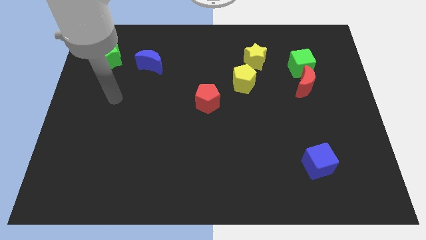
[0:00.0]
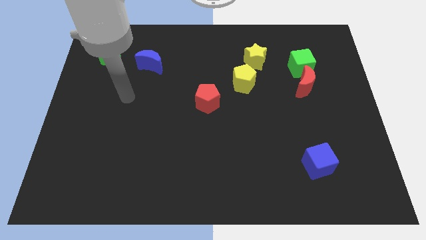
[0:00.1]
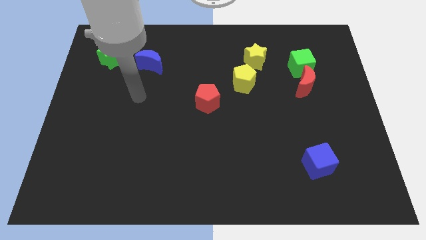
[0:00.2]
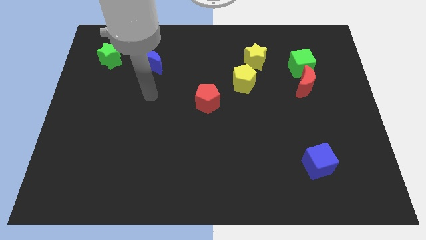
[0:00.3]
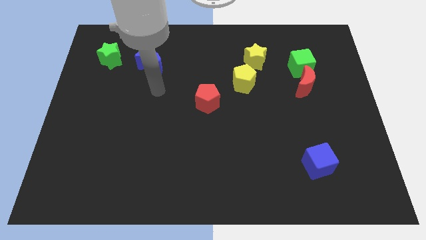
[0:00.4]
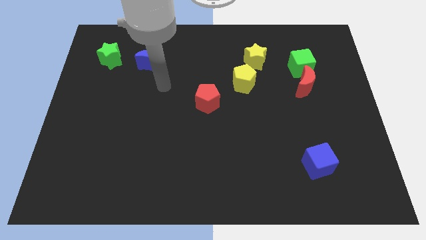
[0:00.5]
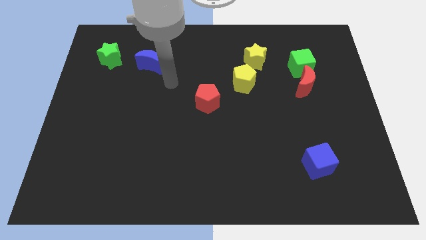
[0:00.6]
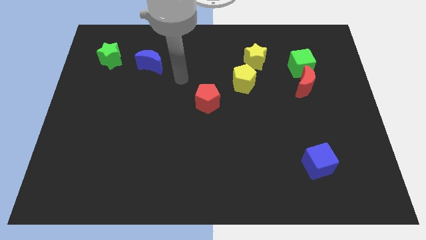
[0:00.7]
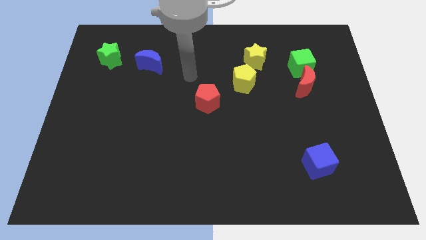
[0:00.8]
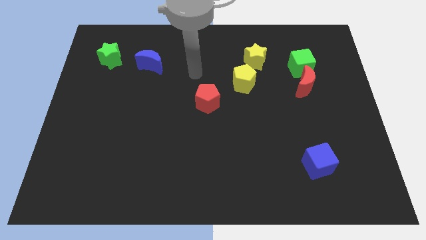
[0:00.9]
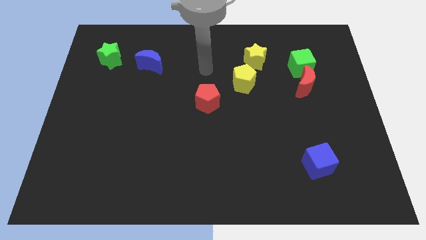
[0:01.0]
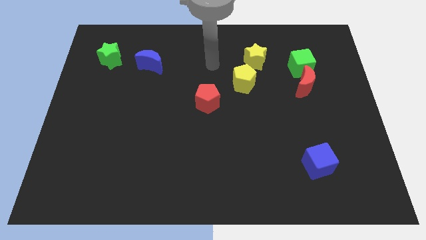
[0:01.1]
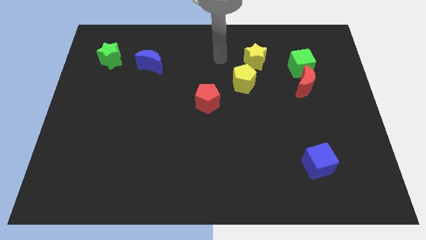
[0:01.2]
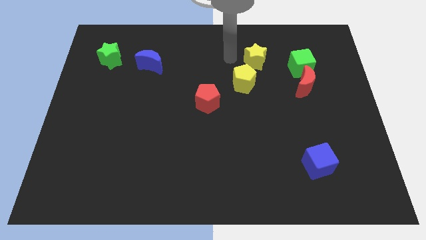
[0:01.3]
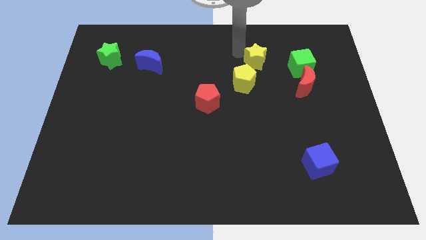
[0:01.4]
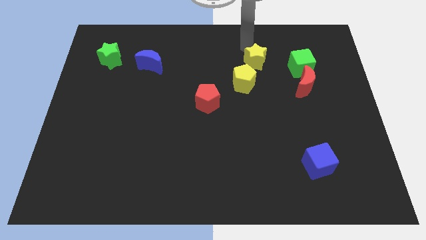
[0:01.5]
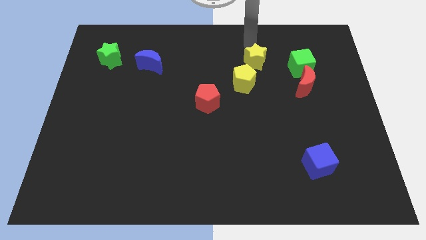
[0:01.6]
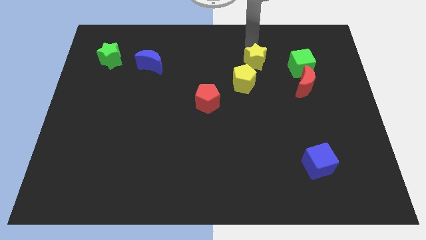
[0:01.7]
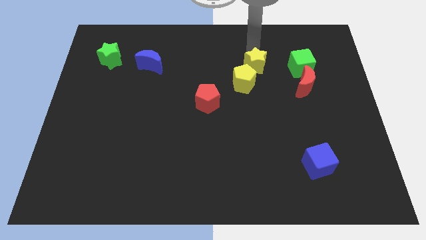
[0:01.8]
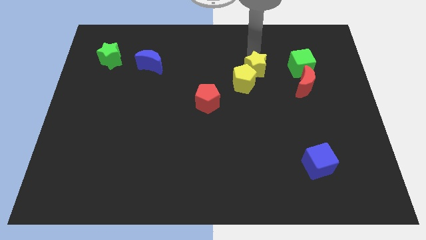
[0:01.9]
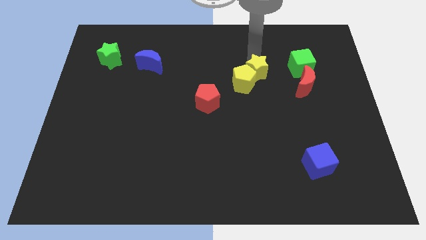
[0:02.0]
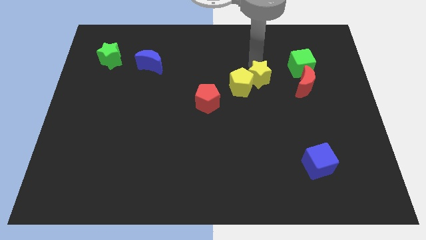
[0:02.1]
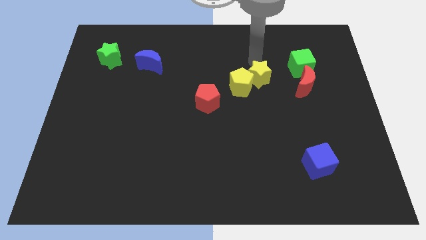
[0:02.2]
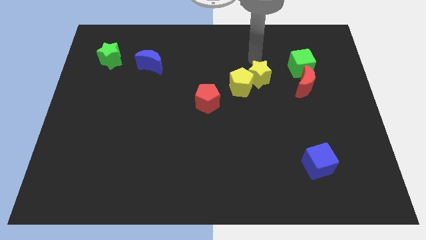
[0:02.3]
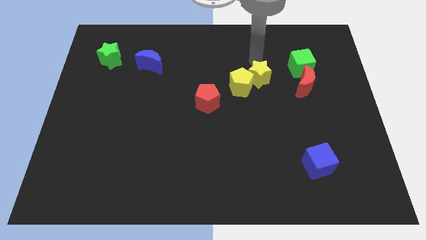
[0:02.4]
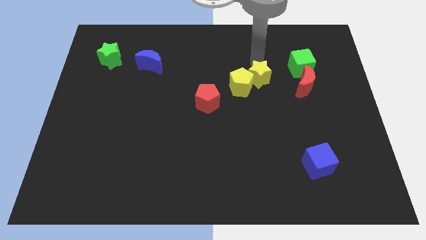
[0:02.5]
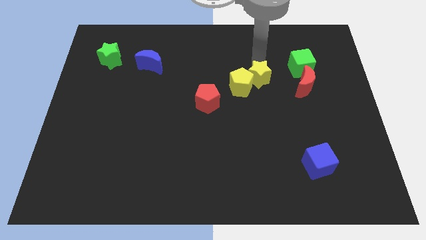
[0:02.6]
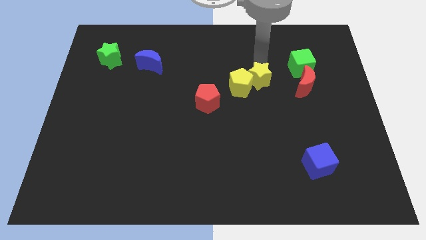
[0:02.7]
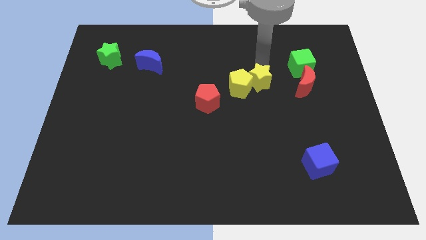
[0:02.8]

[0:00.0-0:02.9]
slide the yellow star down a little bit

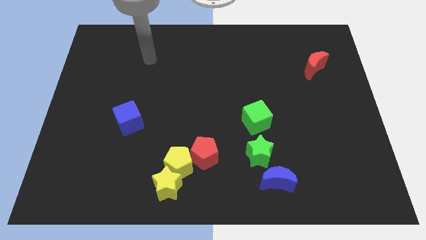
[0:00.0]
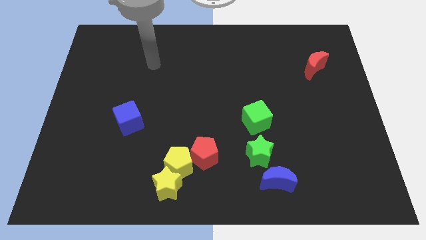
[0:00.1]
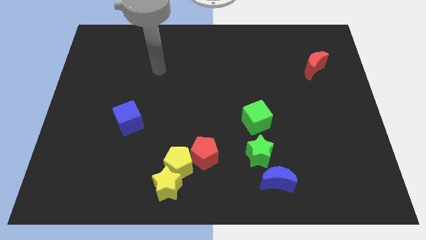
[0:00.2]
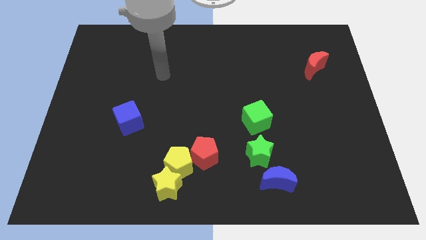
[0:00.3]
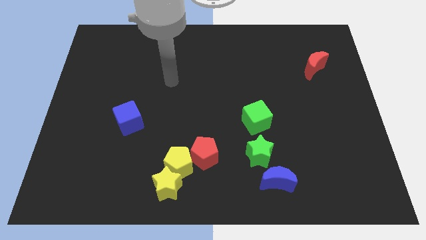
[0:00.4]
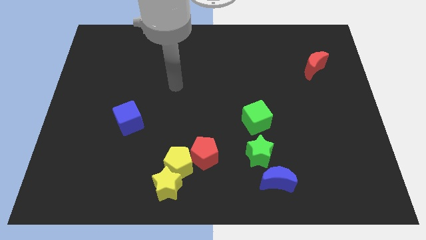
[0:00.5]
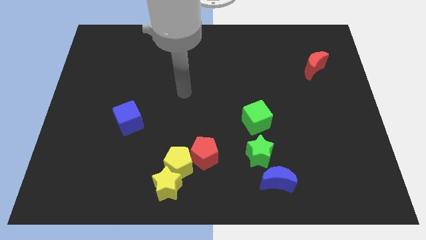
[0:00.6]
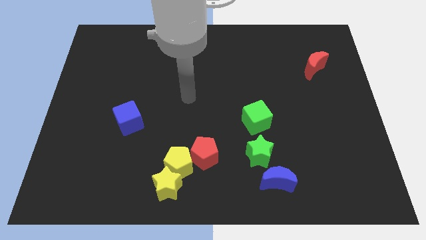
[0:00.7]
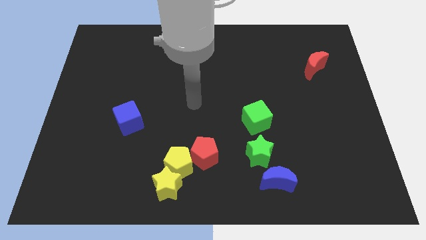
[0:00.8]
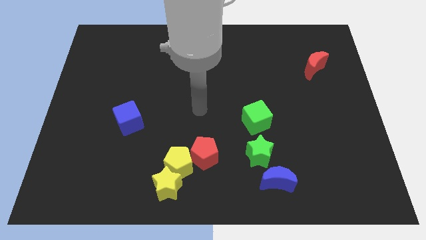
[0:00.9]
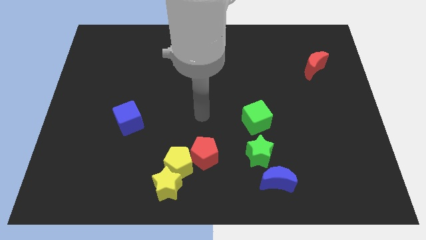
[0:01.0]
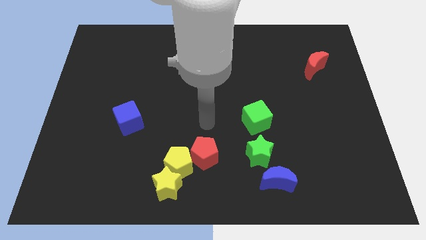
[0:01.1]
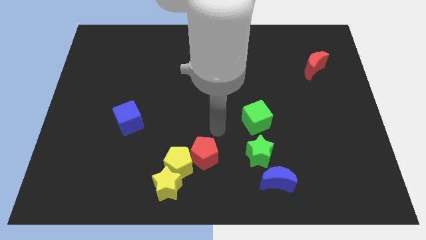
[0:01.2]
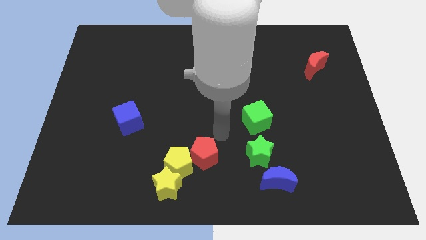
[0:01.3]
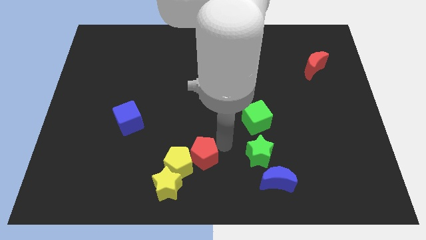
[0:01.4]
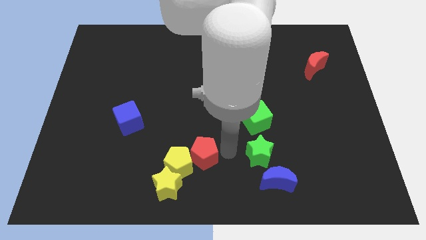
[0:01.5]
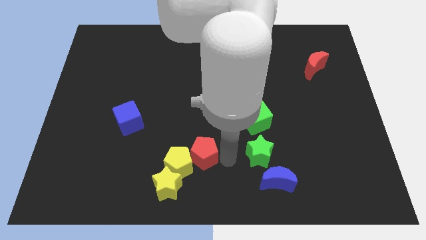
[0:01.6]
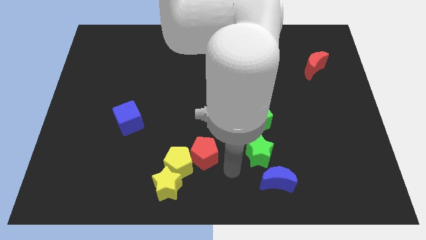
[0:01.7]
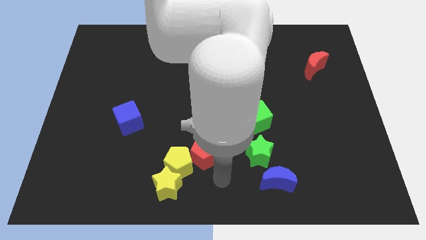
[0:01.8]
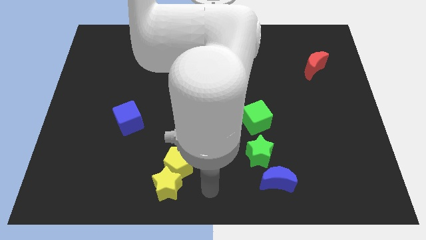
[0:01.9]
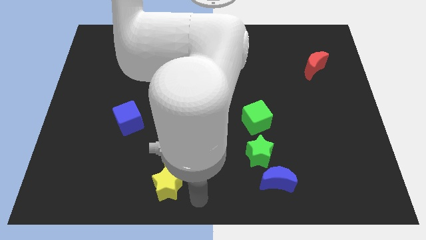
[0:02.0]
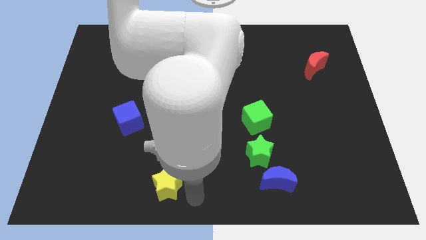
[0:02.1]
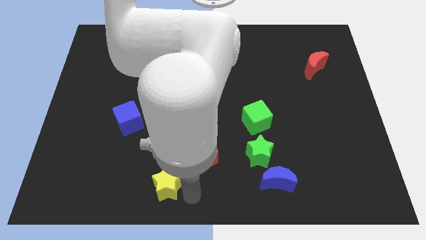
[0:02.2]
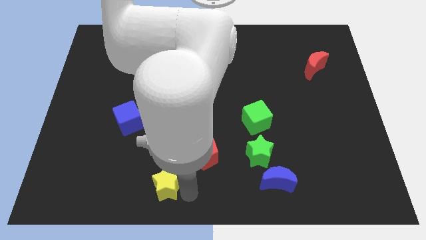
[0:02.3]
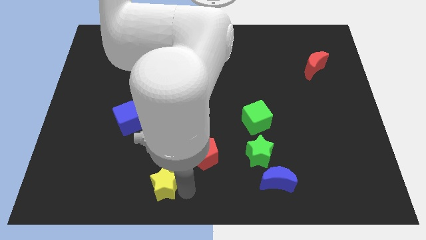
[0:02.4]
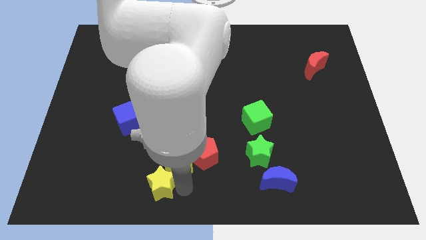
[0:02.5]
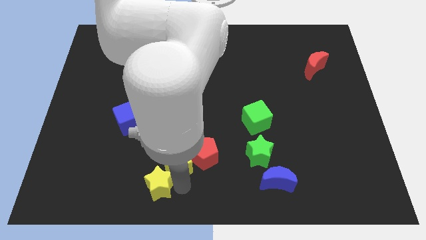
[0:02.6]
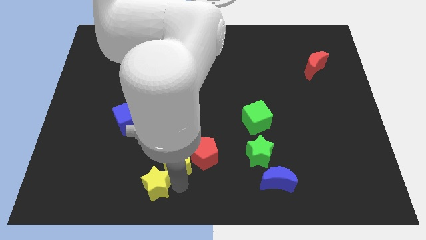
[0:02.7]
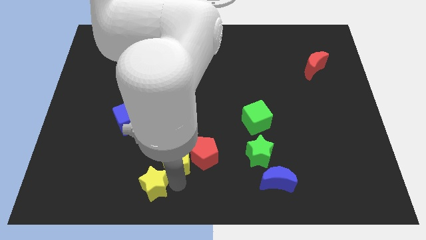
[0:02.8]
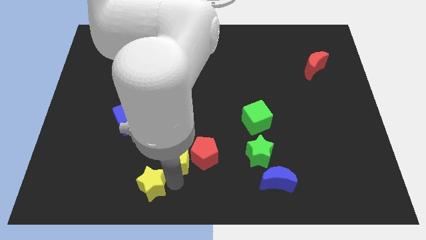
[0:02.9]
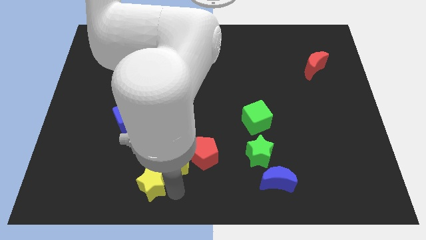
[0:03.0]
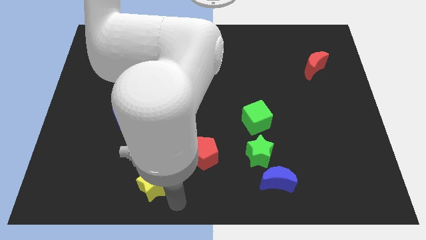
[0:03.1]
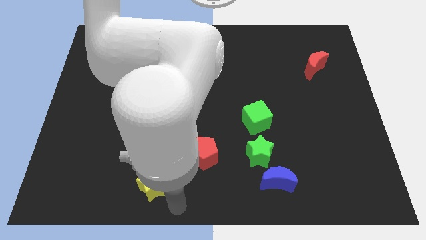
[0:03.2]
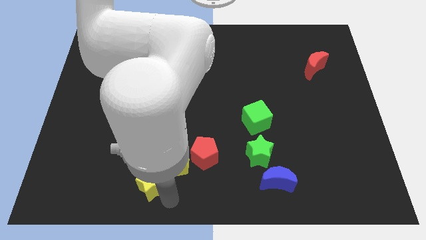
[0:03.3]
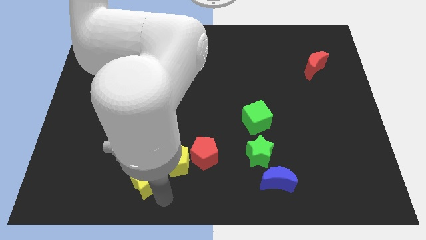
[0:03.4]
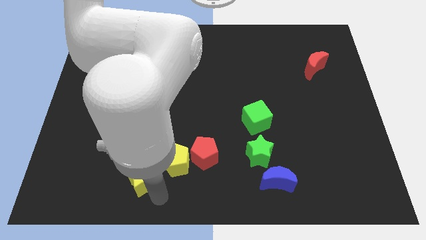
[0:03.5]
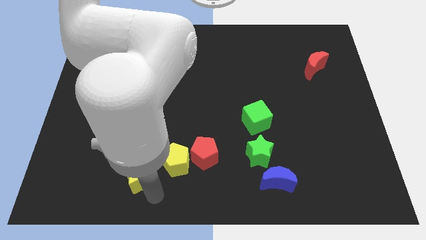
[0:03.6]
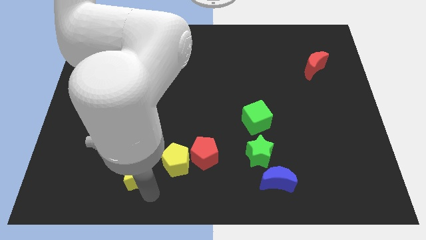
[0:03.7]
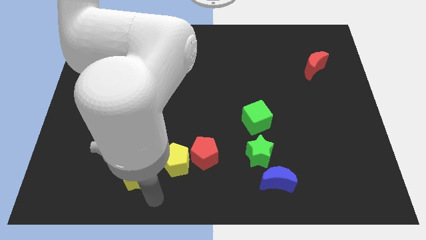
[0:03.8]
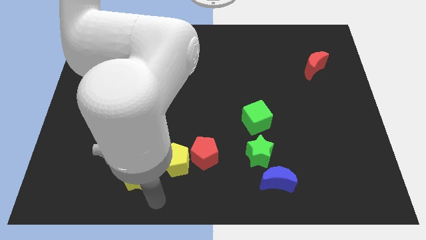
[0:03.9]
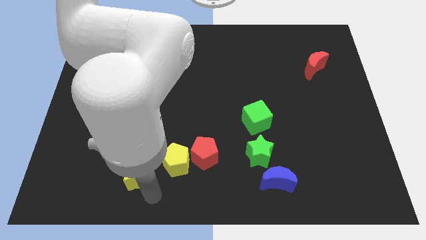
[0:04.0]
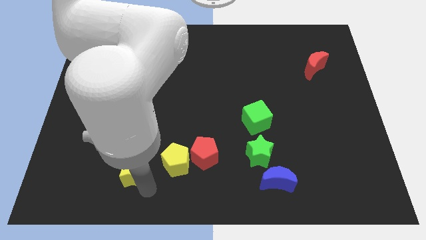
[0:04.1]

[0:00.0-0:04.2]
move the yellow star a bit upwards and then left

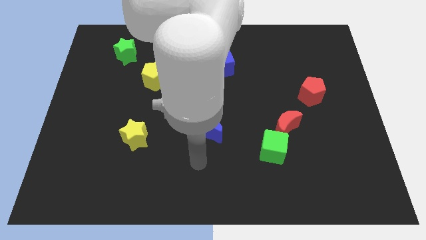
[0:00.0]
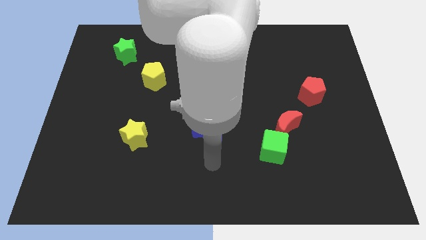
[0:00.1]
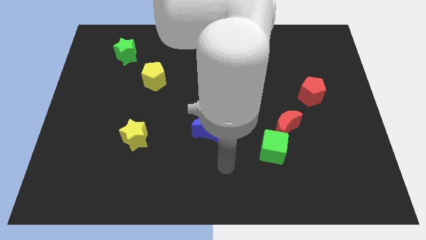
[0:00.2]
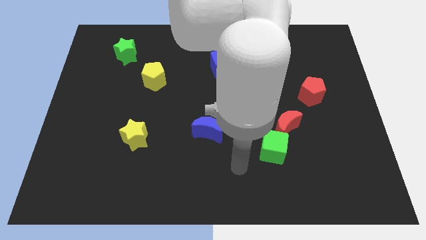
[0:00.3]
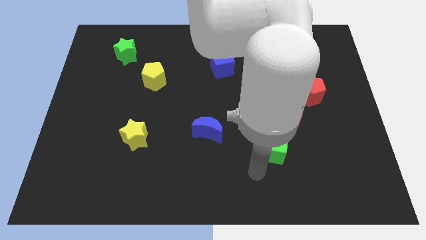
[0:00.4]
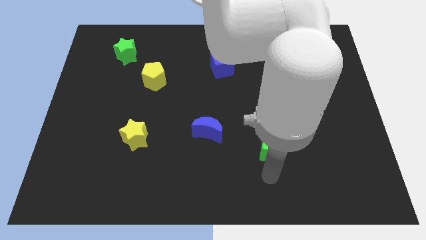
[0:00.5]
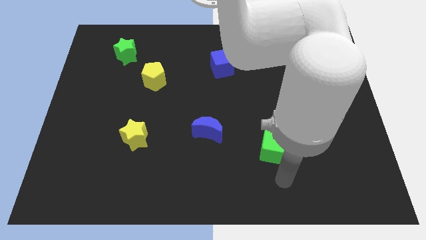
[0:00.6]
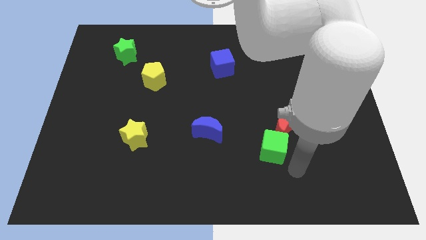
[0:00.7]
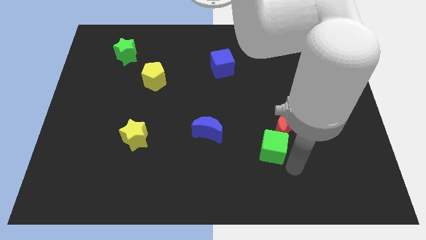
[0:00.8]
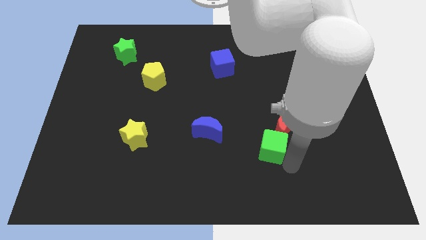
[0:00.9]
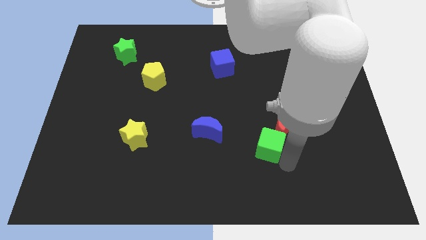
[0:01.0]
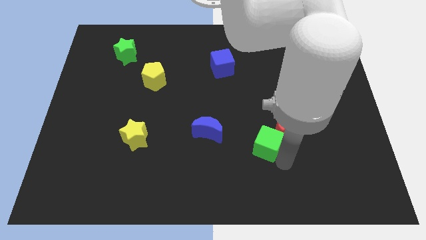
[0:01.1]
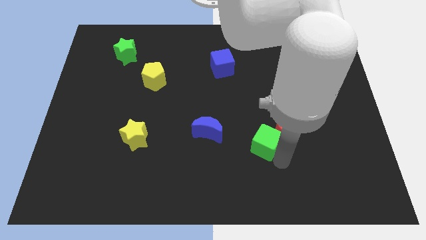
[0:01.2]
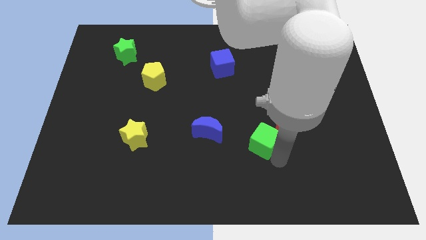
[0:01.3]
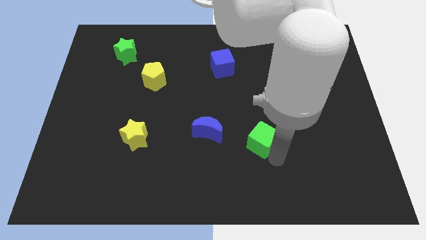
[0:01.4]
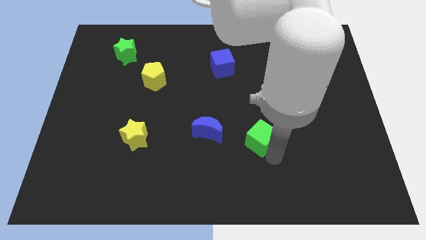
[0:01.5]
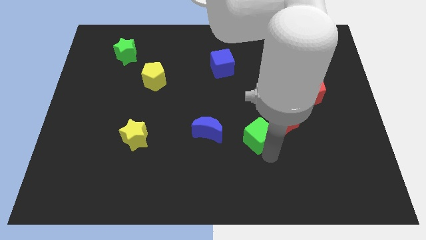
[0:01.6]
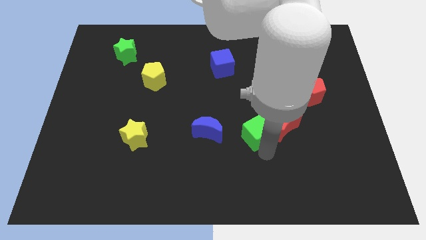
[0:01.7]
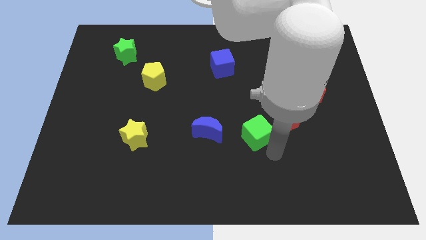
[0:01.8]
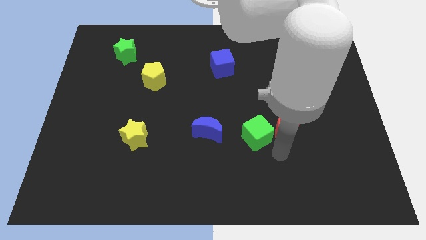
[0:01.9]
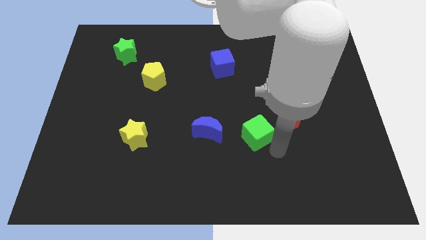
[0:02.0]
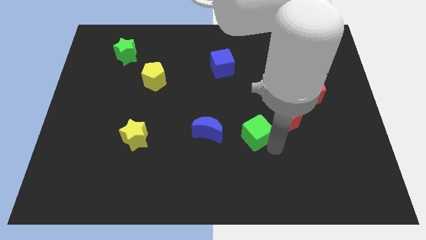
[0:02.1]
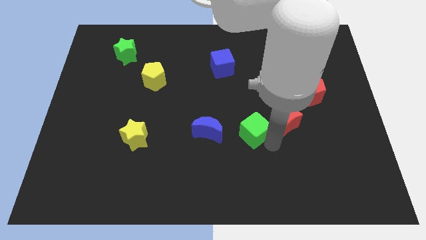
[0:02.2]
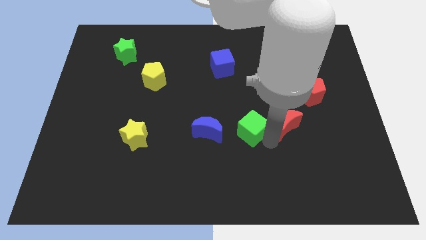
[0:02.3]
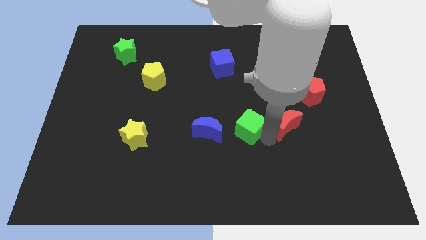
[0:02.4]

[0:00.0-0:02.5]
push the green cube diagonally up and left somewhat
